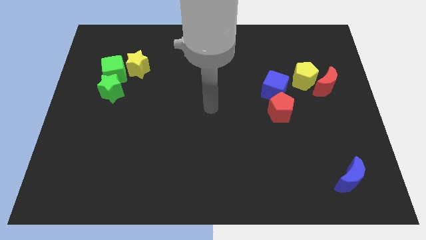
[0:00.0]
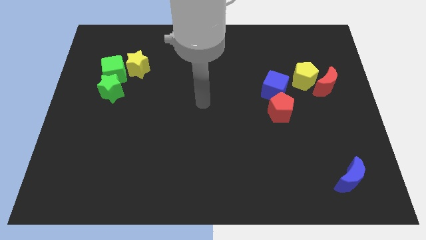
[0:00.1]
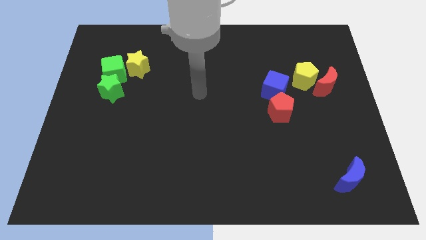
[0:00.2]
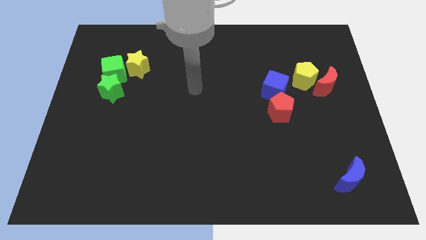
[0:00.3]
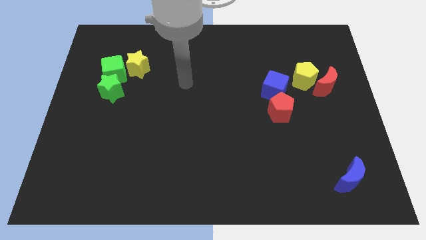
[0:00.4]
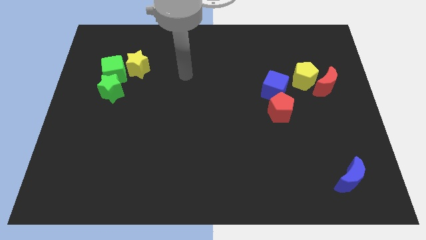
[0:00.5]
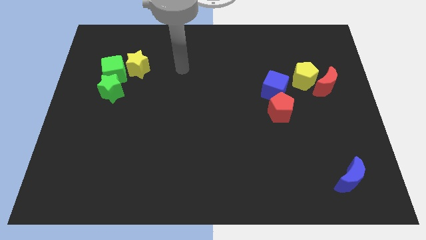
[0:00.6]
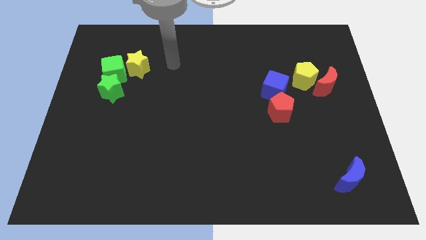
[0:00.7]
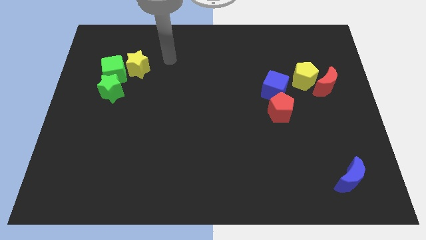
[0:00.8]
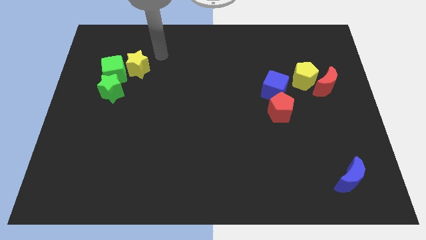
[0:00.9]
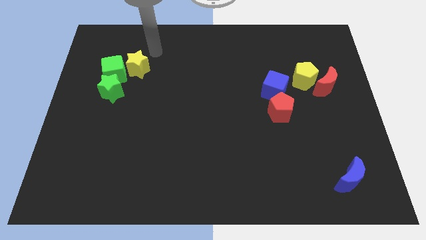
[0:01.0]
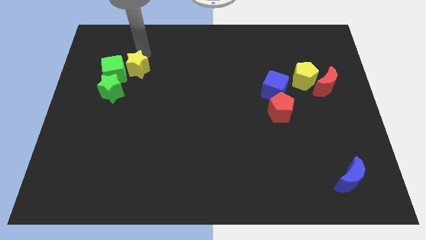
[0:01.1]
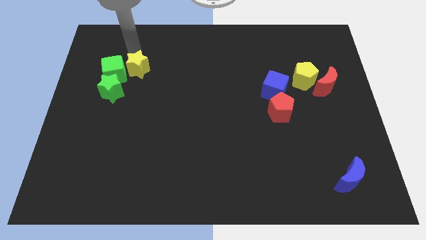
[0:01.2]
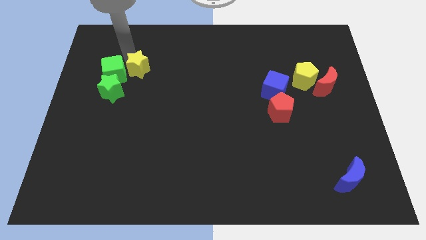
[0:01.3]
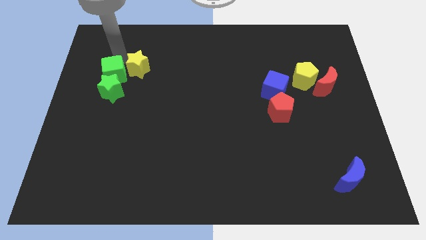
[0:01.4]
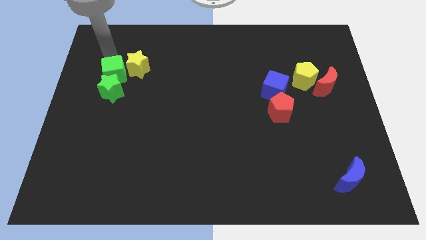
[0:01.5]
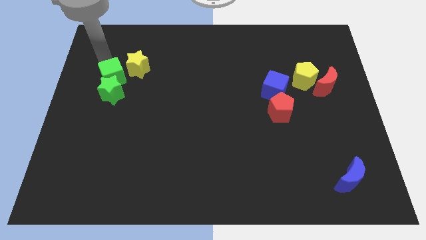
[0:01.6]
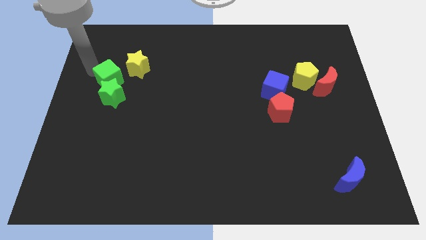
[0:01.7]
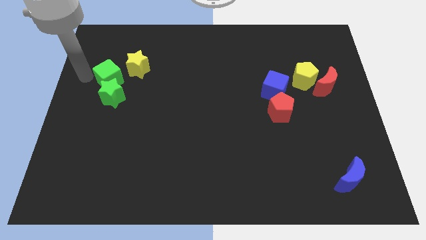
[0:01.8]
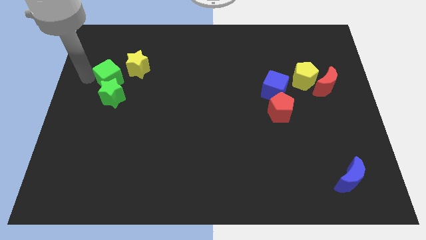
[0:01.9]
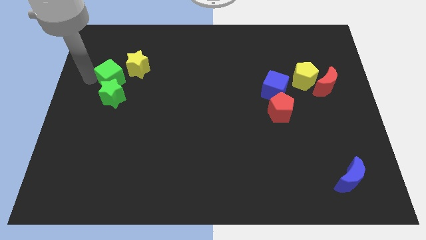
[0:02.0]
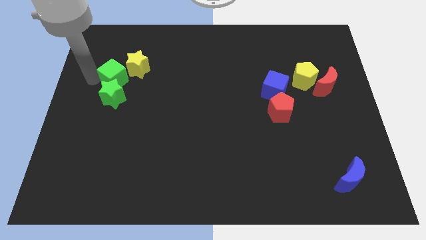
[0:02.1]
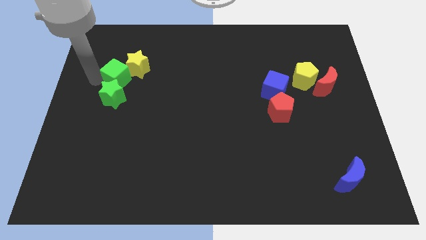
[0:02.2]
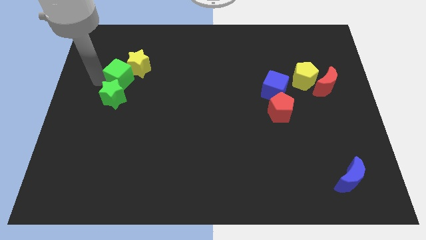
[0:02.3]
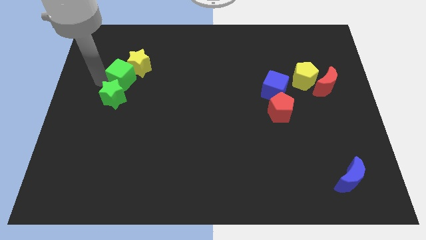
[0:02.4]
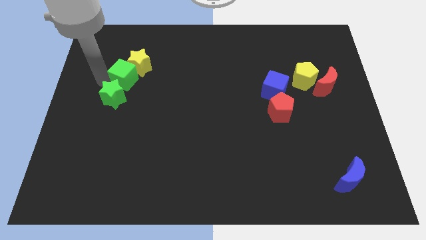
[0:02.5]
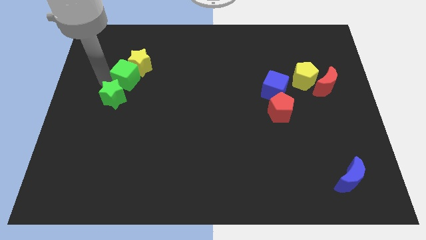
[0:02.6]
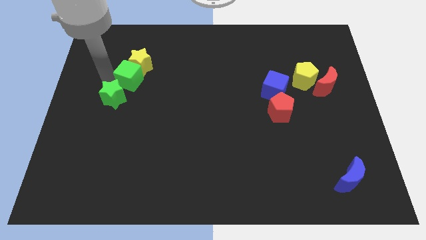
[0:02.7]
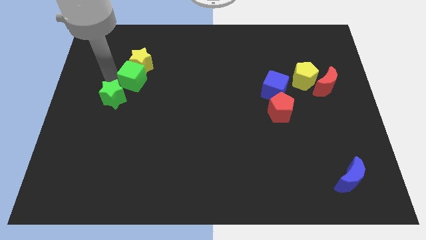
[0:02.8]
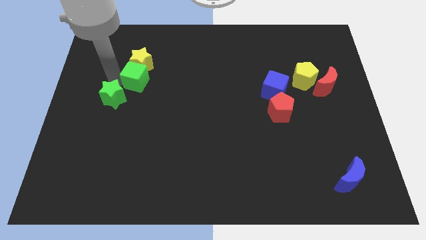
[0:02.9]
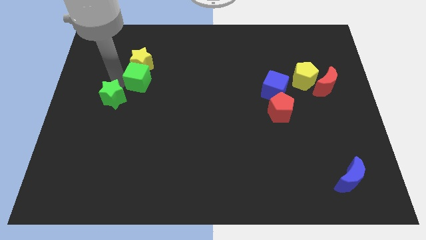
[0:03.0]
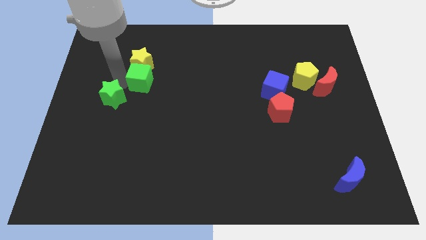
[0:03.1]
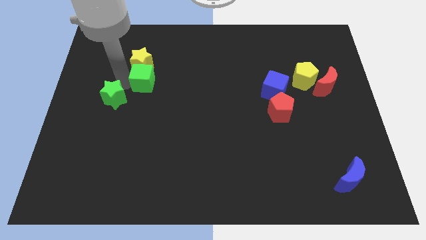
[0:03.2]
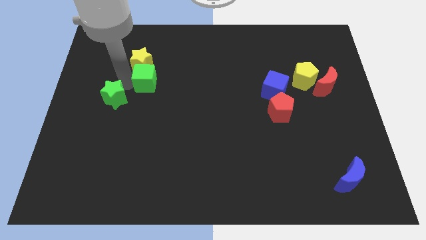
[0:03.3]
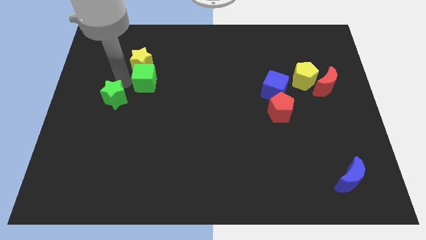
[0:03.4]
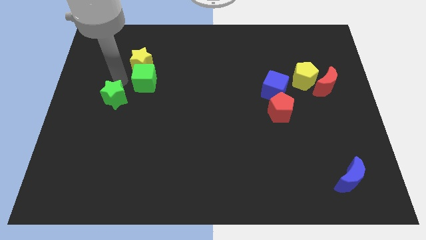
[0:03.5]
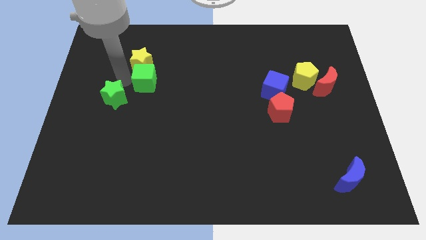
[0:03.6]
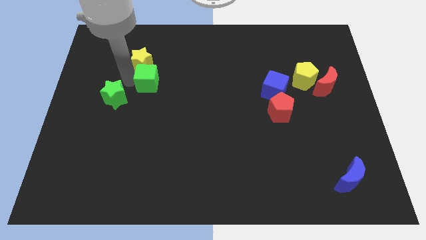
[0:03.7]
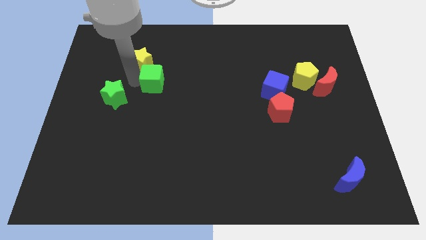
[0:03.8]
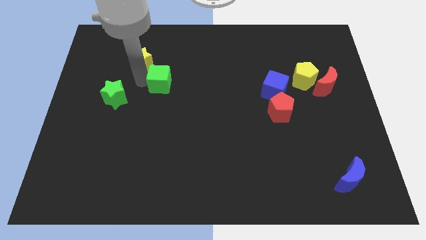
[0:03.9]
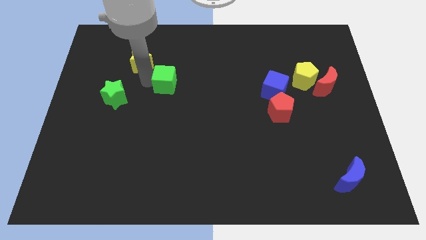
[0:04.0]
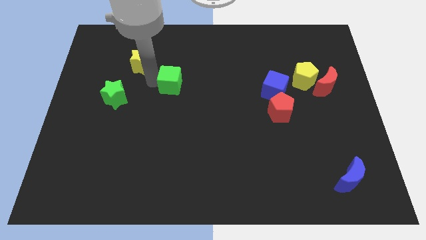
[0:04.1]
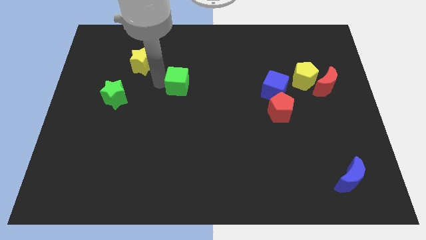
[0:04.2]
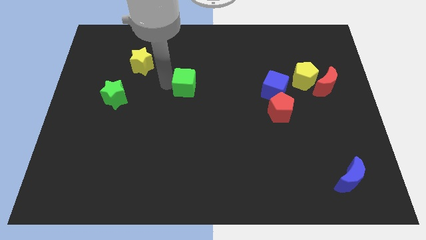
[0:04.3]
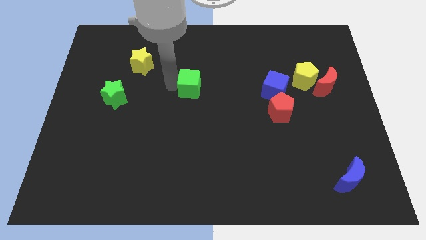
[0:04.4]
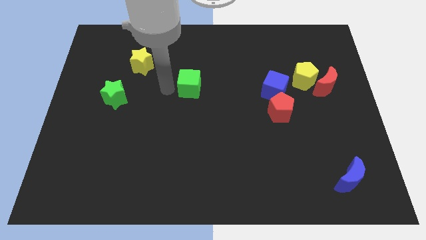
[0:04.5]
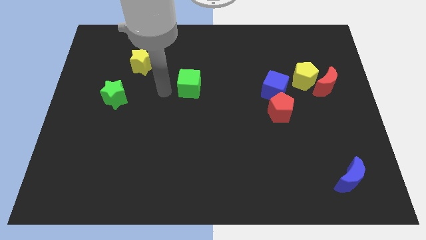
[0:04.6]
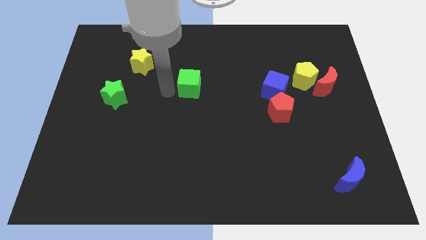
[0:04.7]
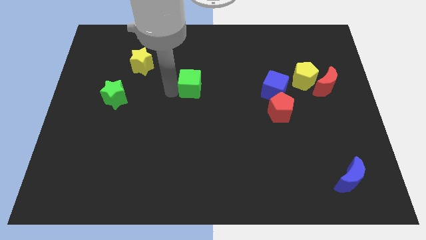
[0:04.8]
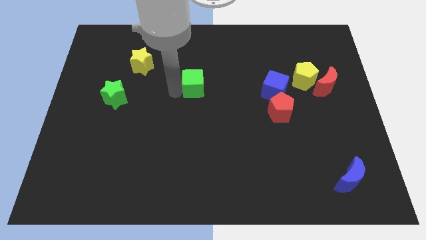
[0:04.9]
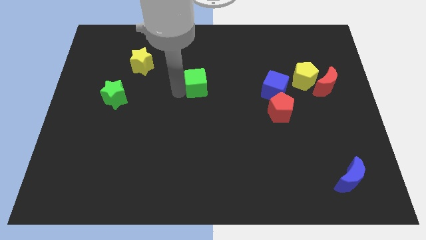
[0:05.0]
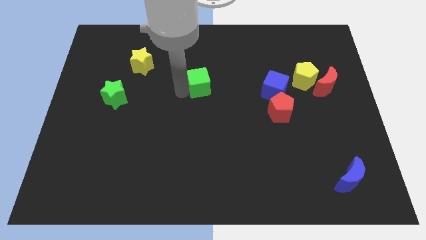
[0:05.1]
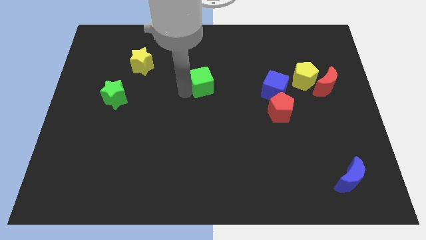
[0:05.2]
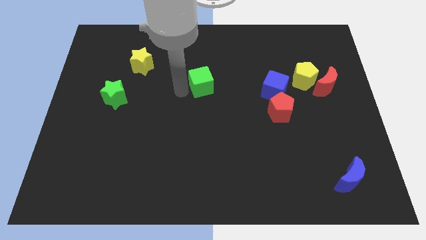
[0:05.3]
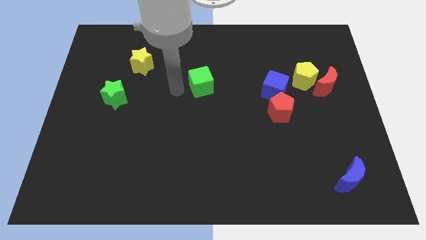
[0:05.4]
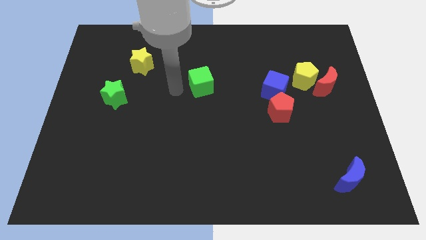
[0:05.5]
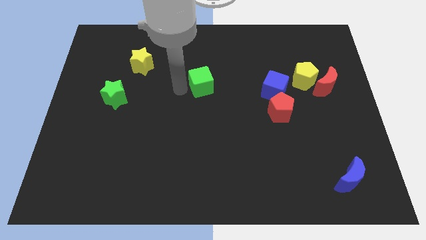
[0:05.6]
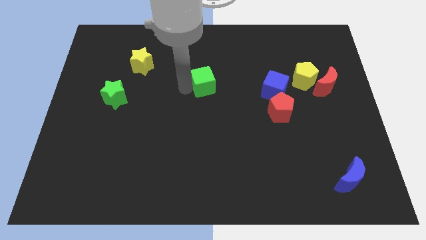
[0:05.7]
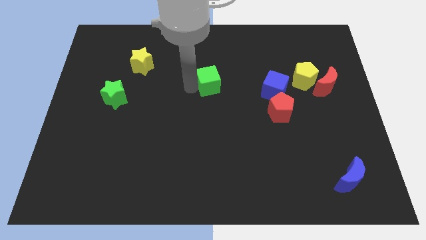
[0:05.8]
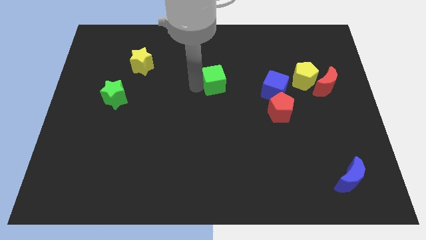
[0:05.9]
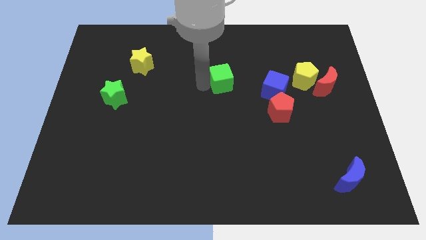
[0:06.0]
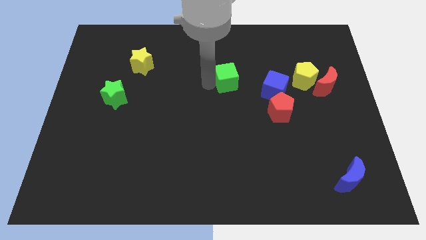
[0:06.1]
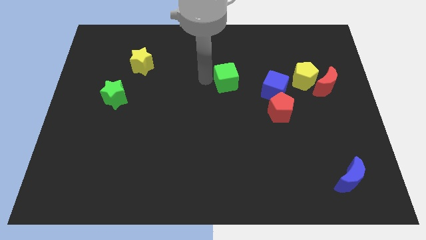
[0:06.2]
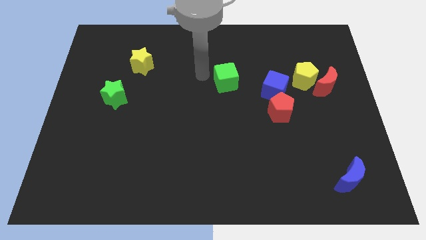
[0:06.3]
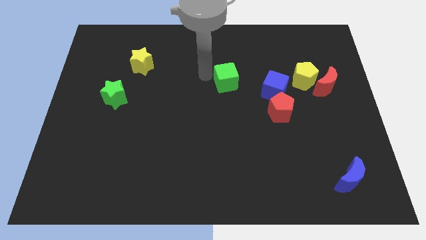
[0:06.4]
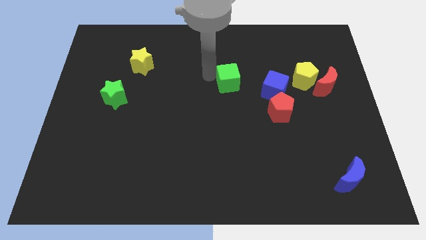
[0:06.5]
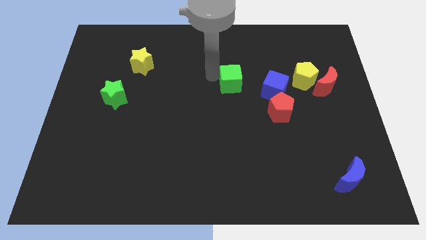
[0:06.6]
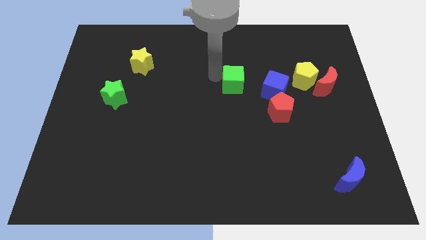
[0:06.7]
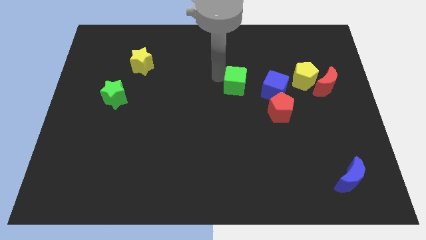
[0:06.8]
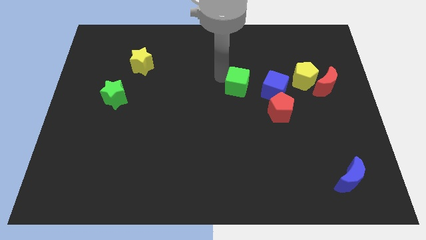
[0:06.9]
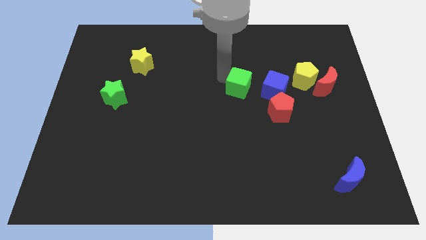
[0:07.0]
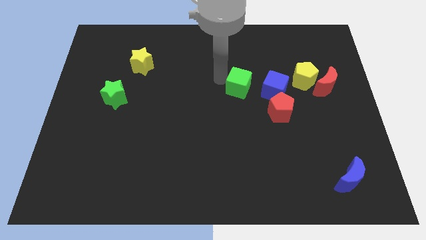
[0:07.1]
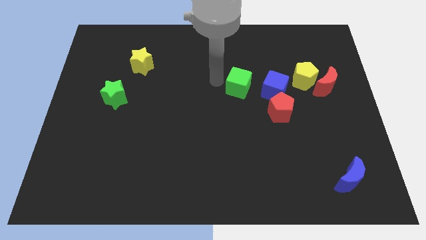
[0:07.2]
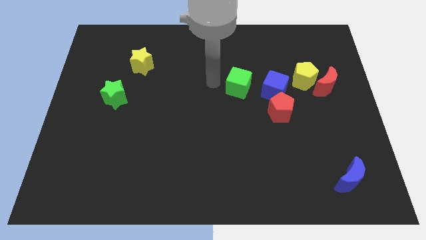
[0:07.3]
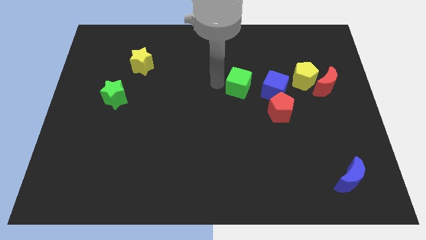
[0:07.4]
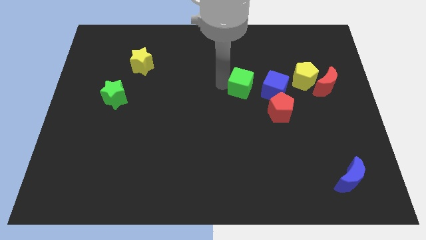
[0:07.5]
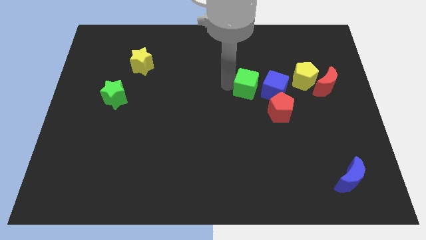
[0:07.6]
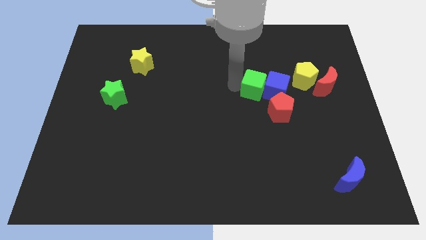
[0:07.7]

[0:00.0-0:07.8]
move the green cube close to the blue cube
